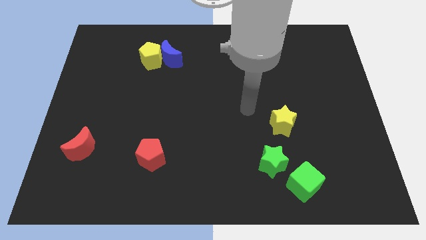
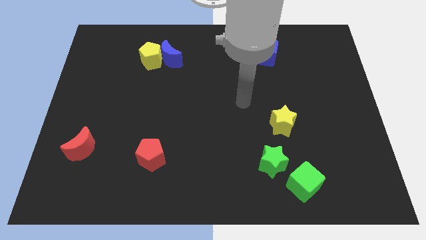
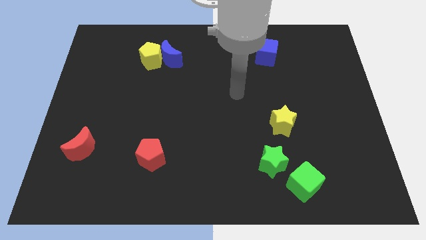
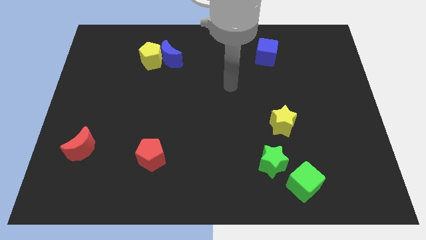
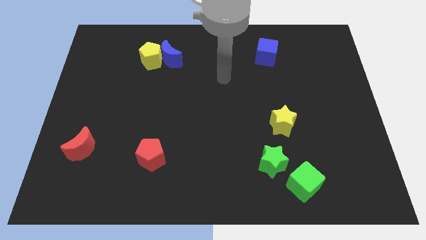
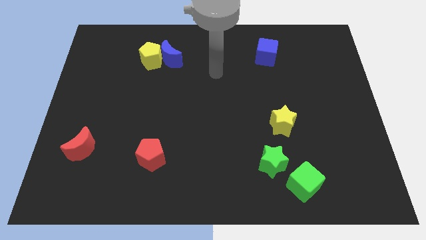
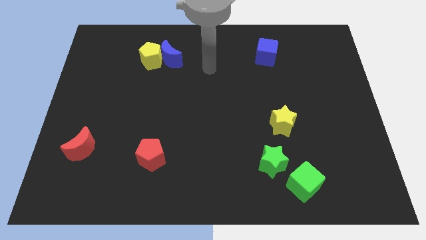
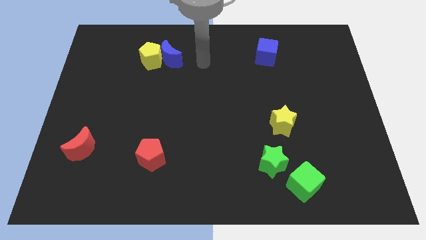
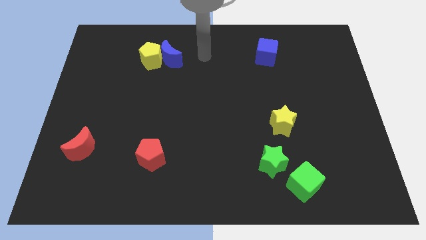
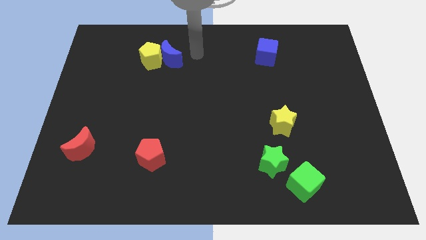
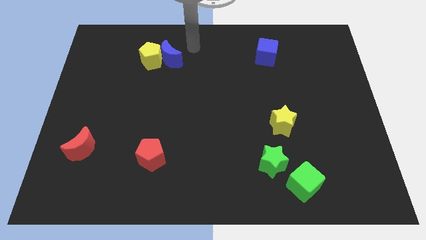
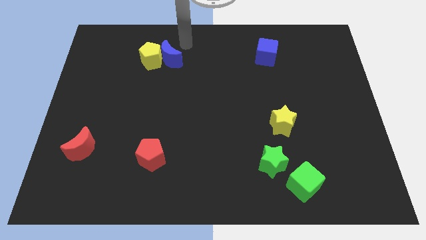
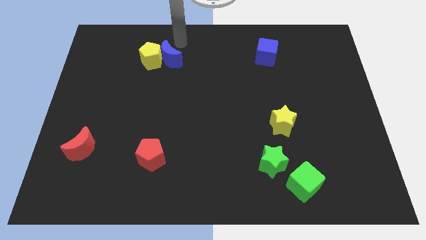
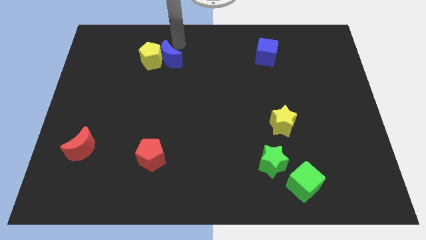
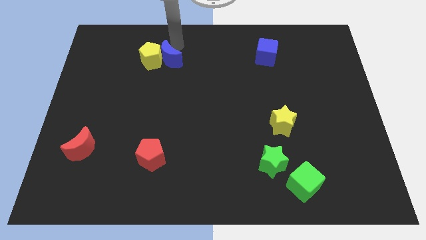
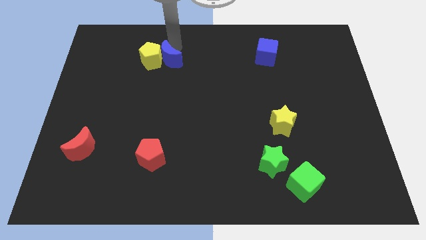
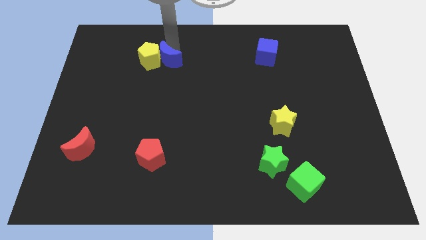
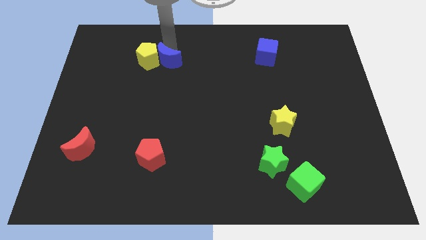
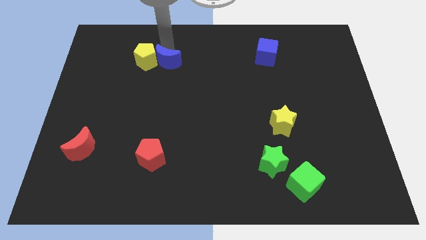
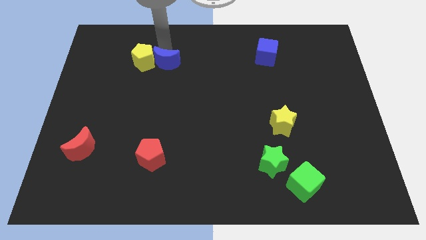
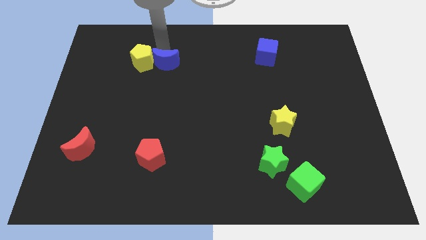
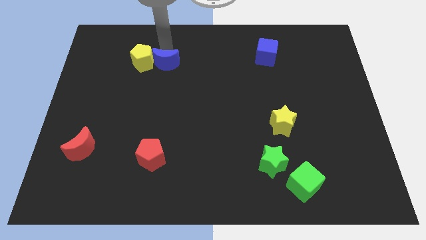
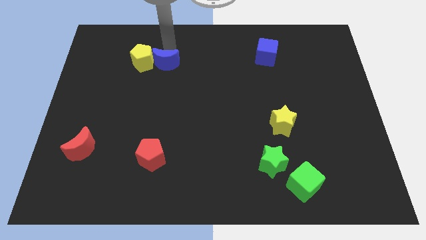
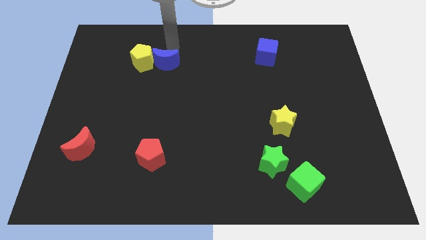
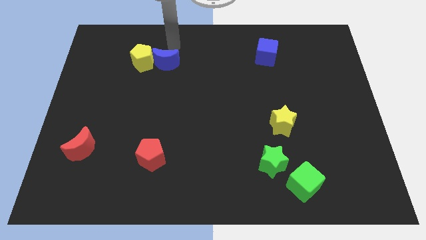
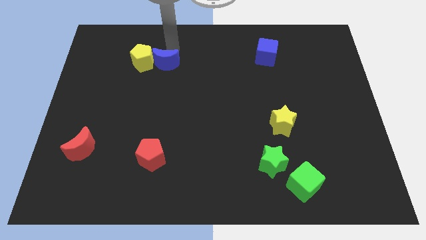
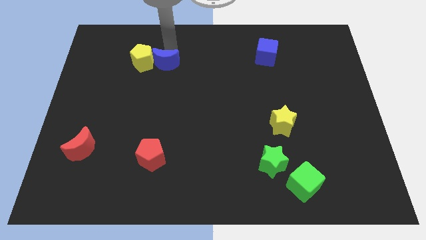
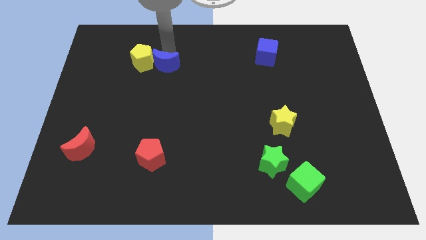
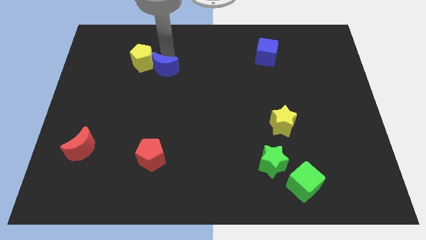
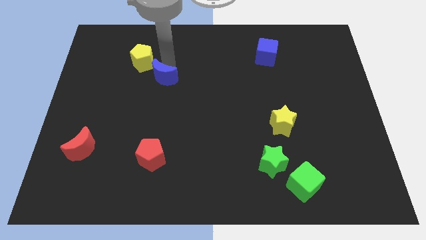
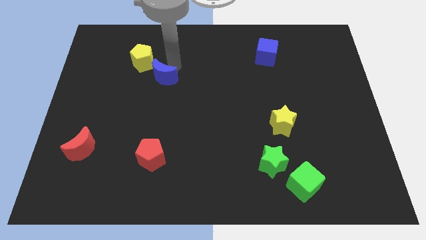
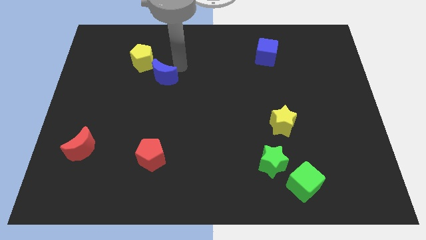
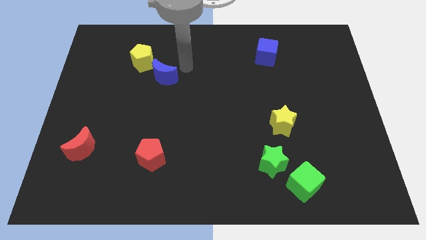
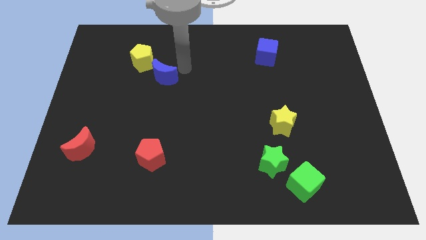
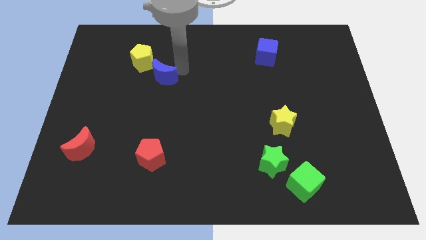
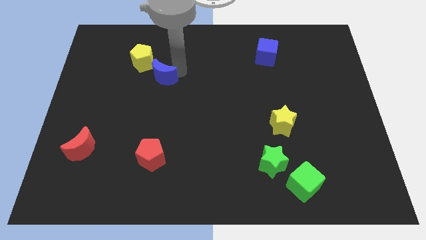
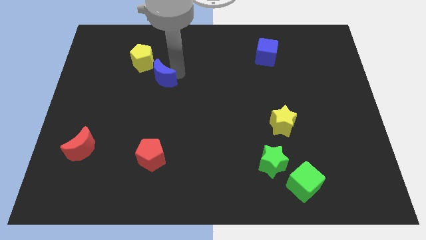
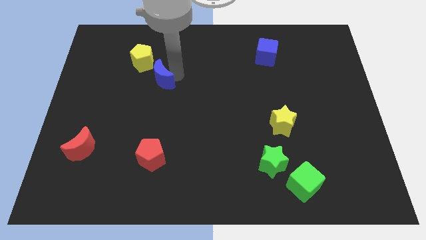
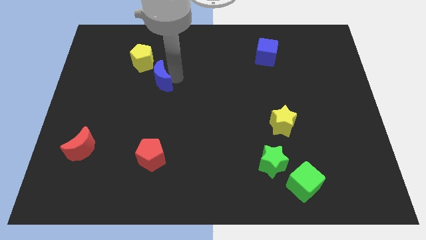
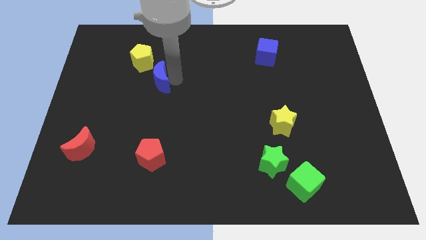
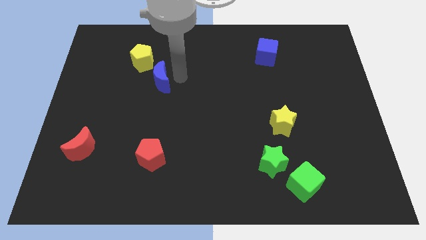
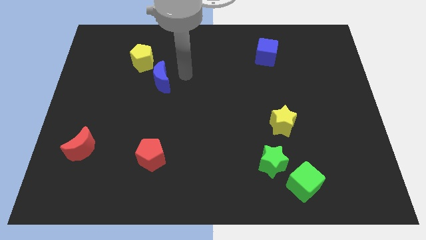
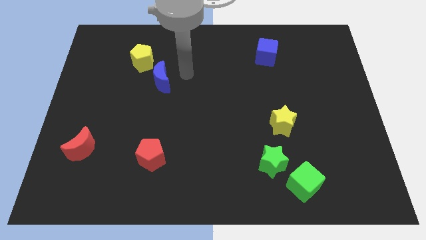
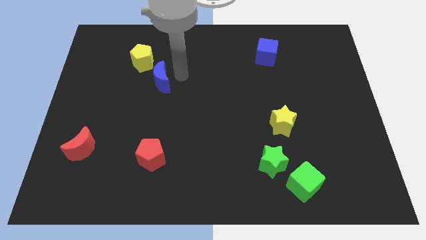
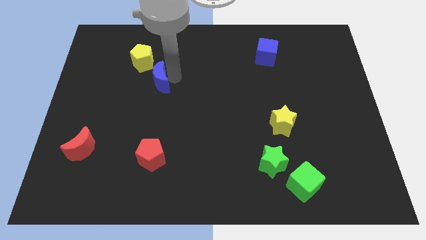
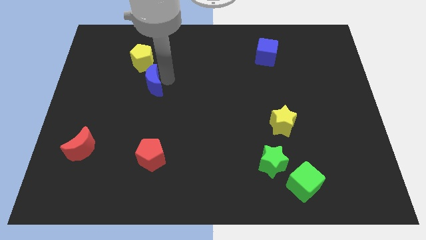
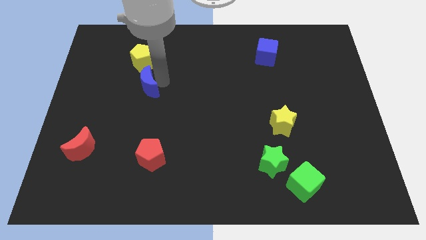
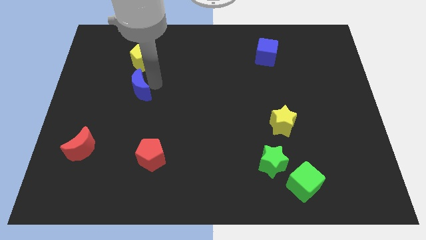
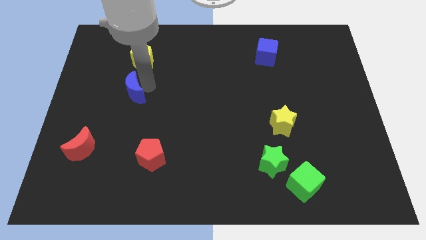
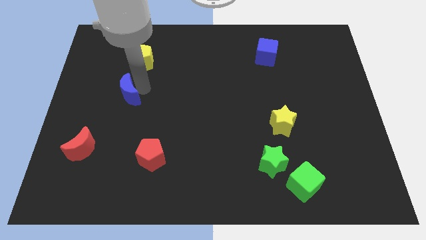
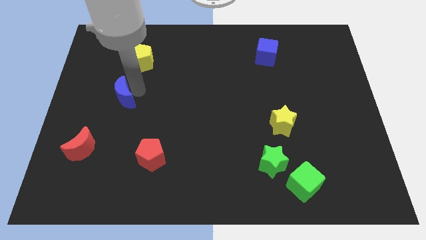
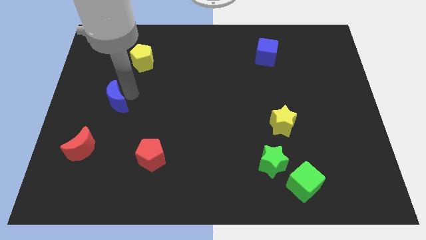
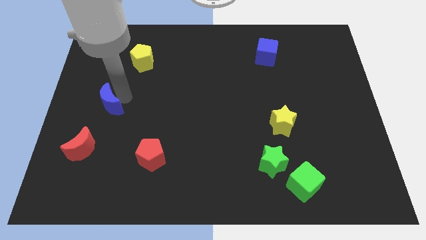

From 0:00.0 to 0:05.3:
push the blue moon above the red moon

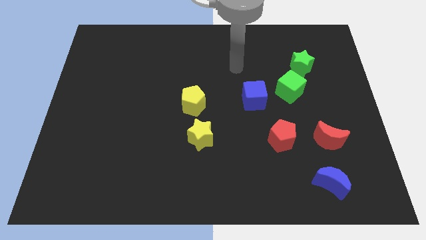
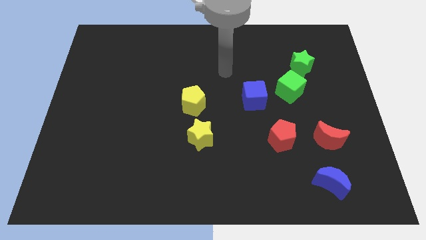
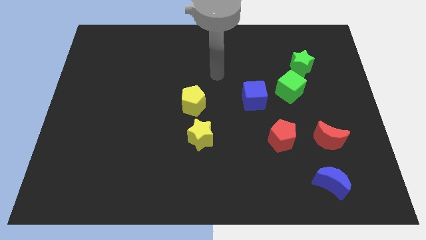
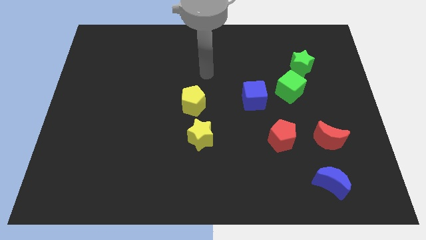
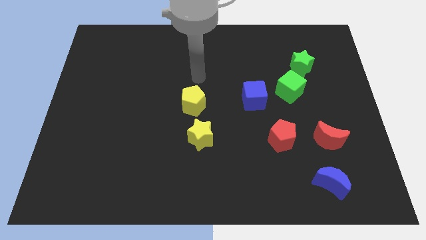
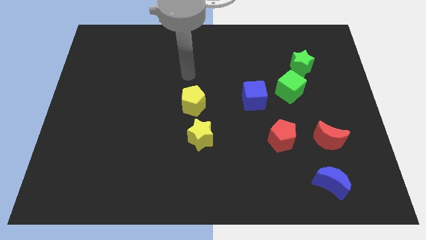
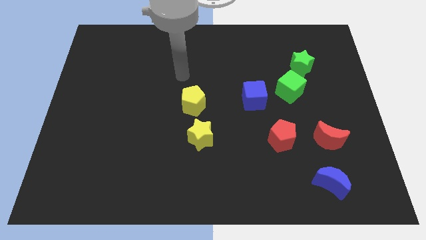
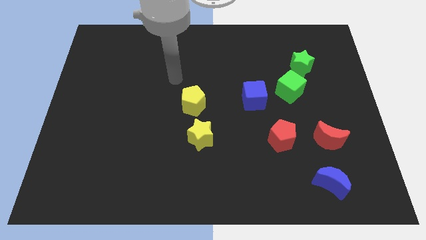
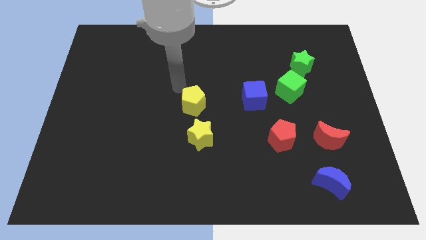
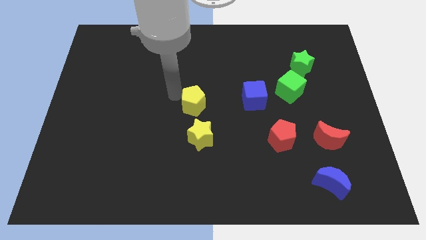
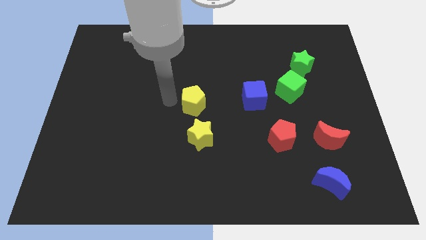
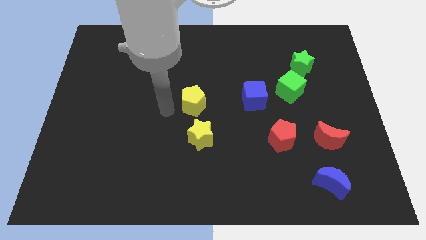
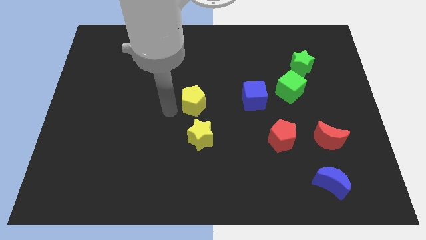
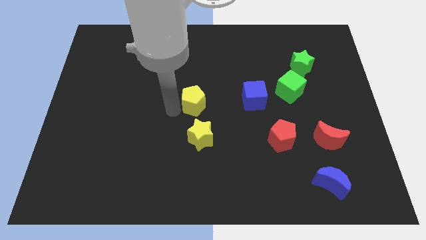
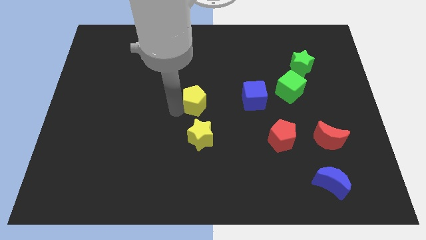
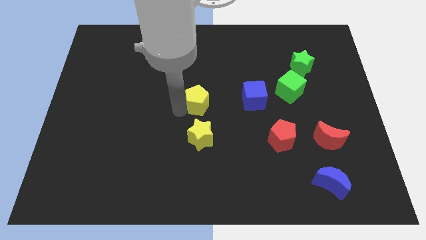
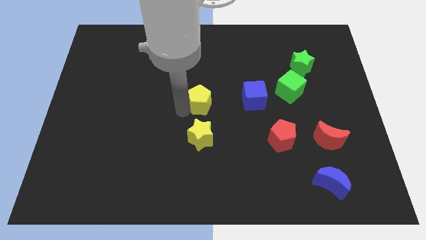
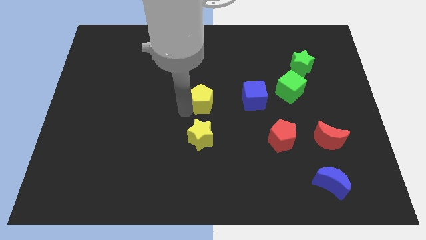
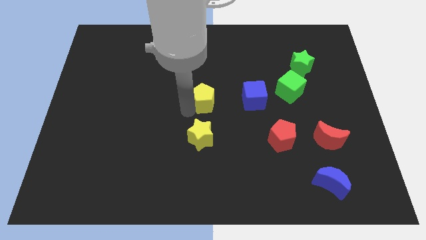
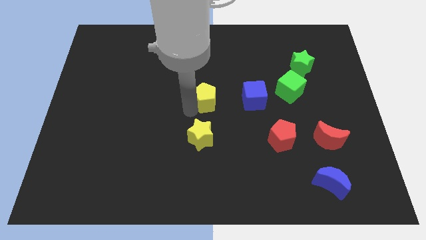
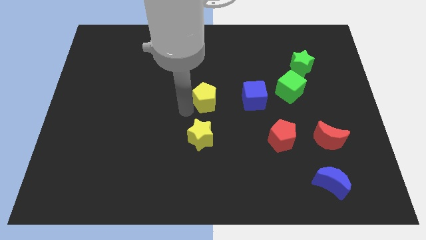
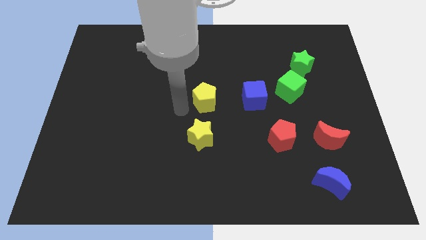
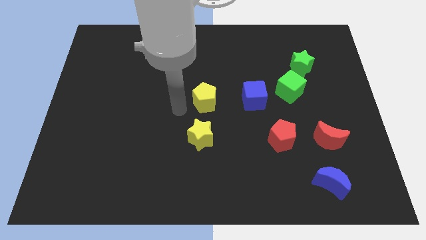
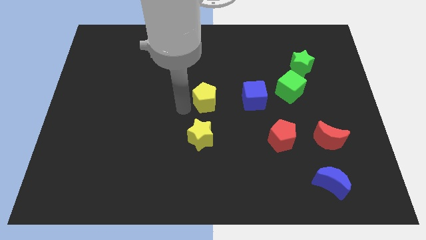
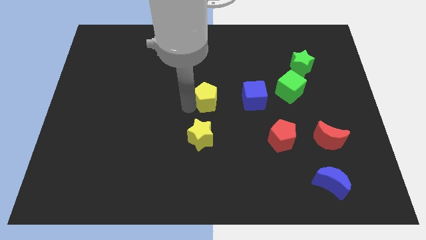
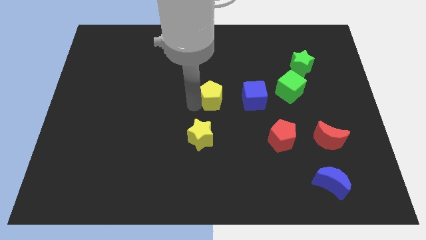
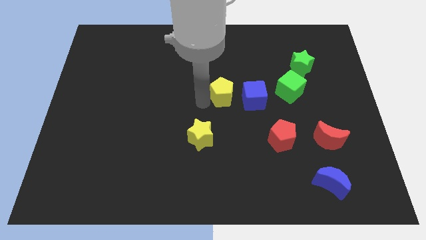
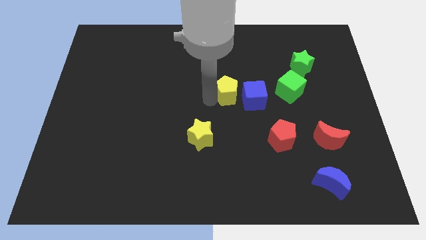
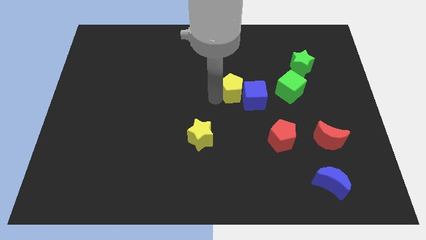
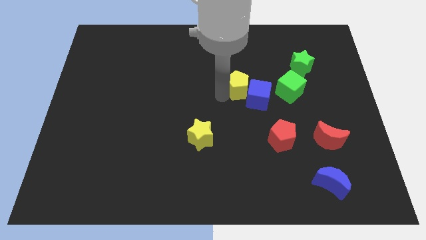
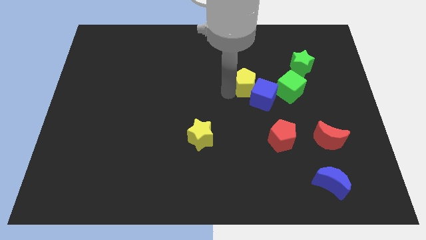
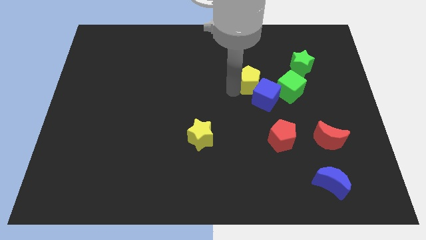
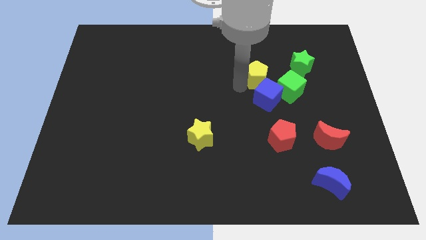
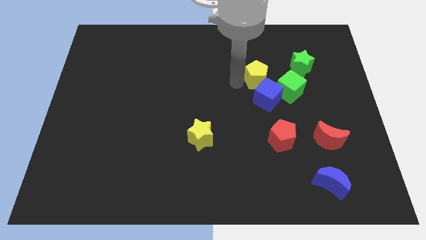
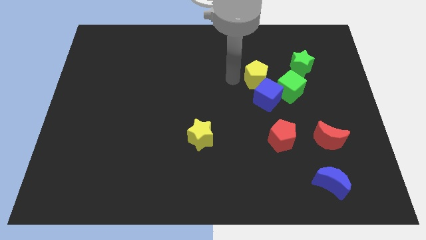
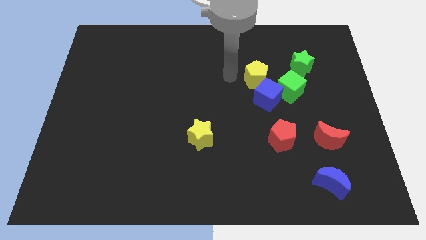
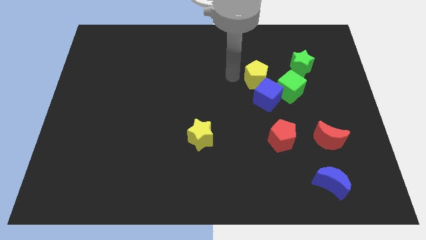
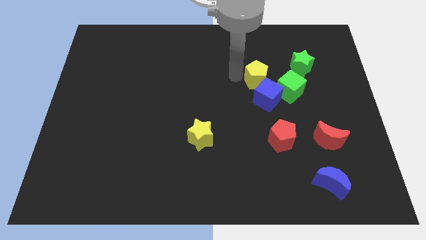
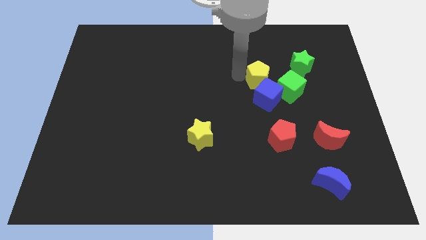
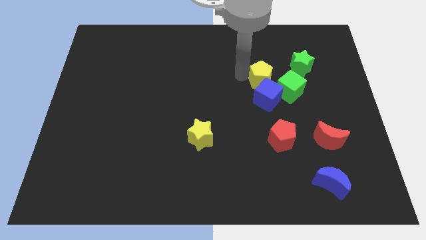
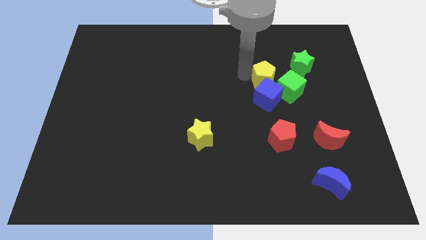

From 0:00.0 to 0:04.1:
slide the yellow pentagon diagonally up and to the right of the blue cube
